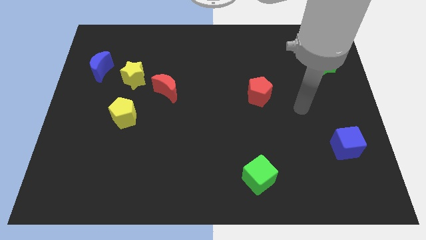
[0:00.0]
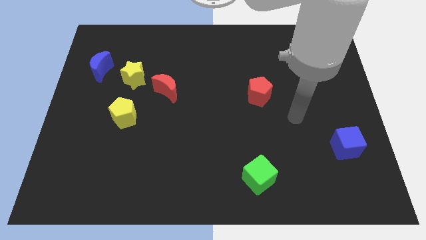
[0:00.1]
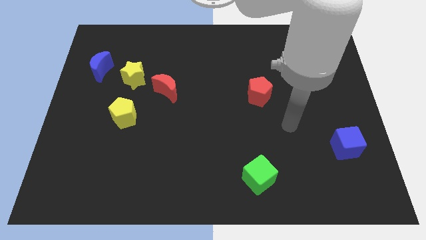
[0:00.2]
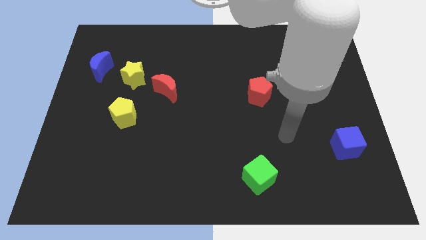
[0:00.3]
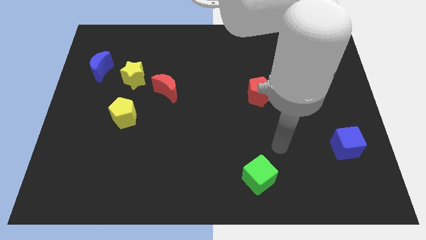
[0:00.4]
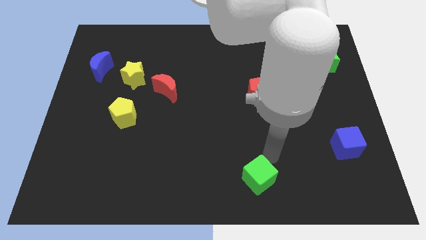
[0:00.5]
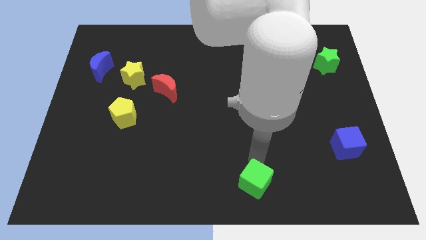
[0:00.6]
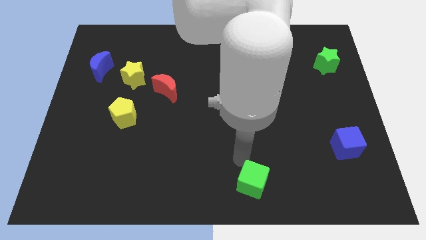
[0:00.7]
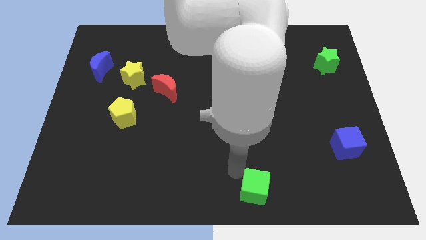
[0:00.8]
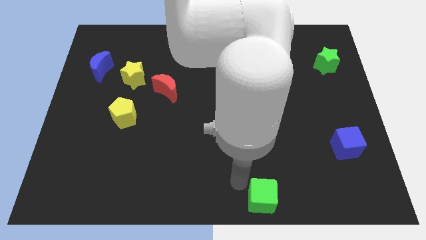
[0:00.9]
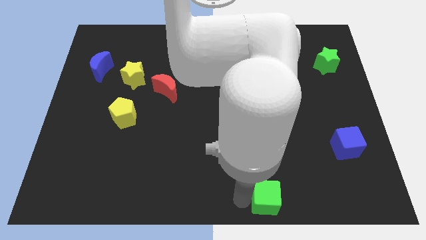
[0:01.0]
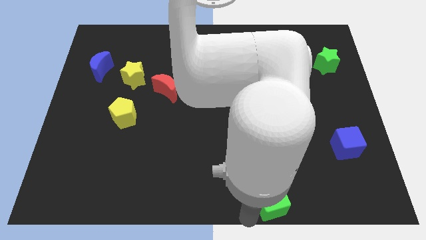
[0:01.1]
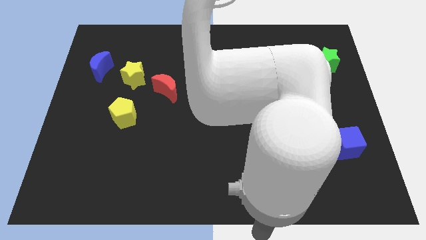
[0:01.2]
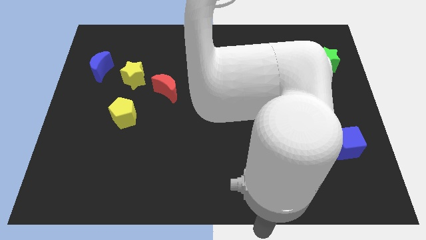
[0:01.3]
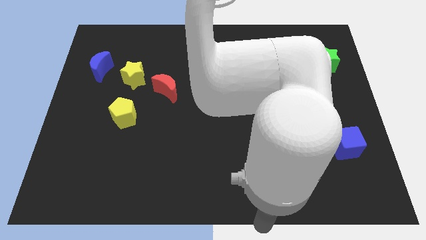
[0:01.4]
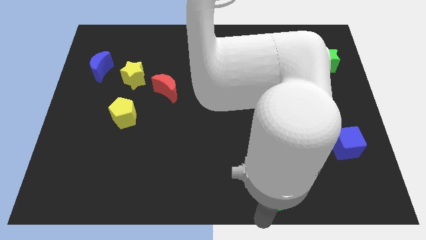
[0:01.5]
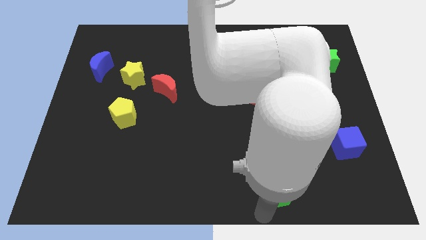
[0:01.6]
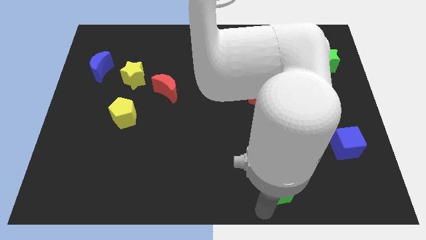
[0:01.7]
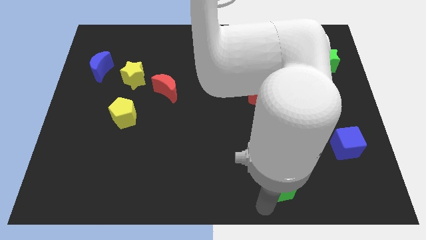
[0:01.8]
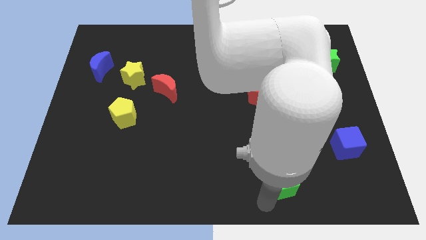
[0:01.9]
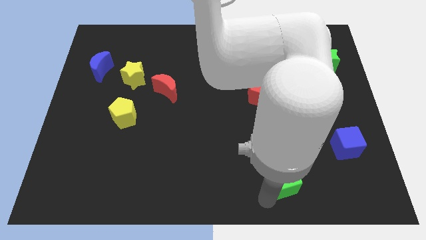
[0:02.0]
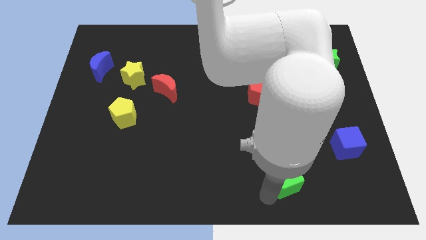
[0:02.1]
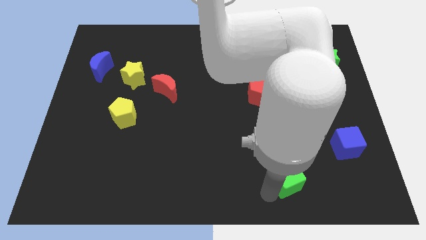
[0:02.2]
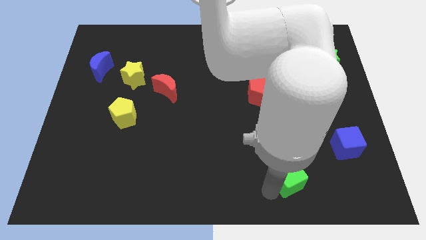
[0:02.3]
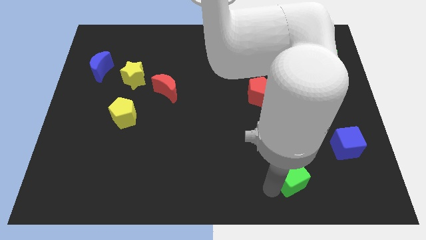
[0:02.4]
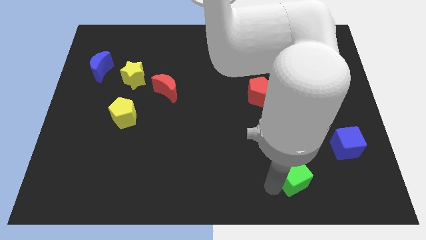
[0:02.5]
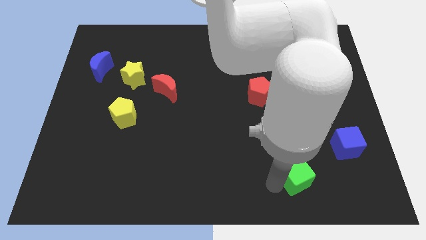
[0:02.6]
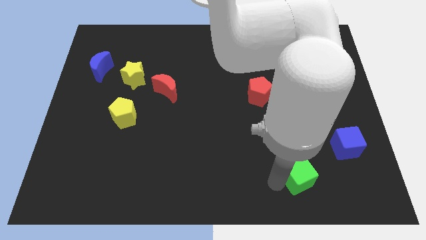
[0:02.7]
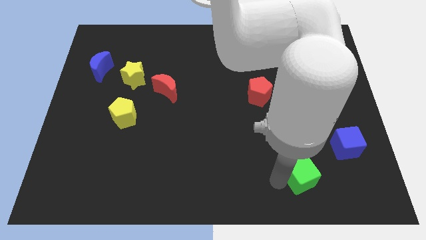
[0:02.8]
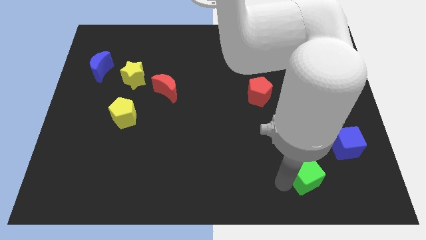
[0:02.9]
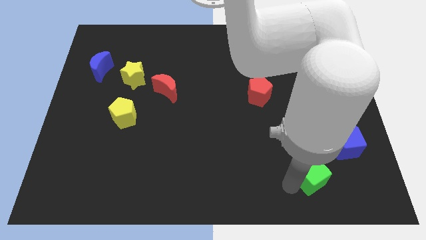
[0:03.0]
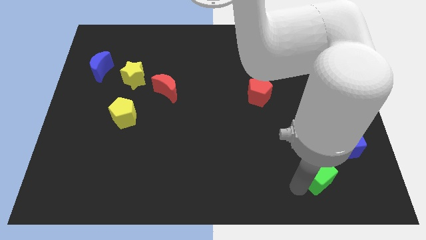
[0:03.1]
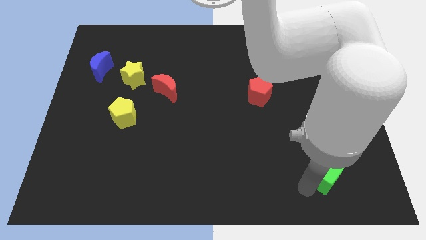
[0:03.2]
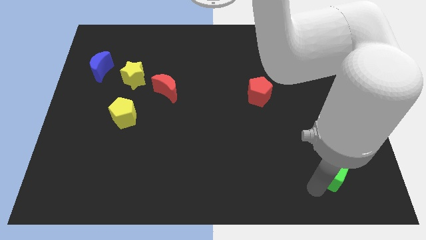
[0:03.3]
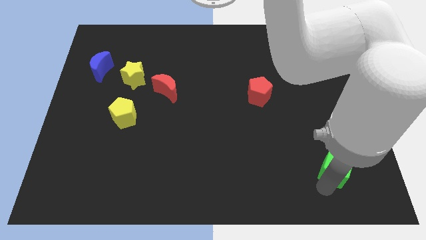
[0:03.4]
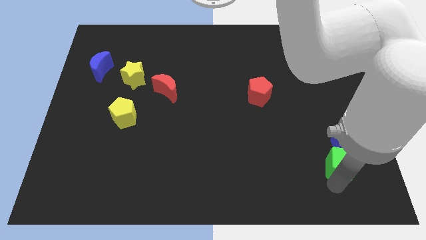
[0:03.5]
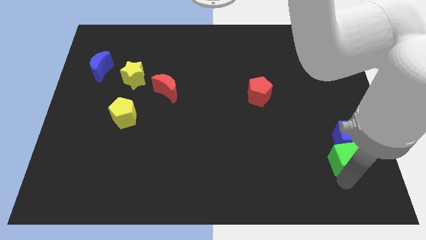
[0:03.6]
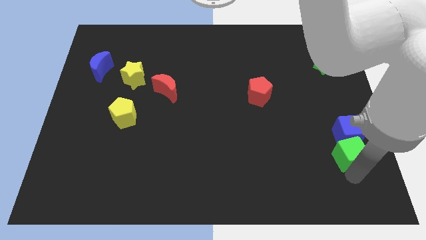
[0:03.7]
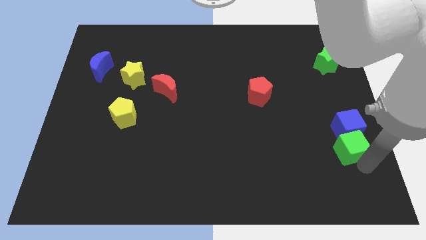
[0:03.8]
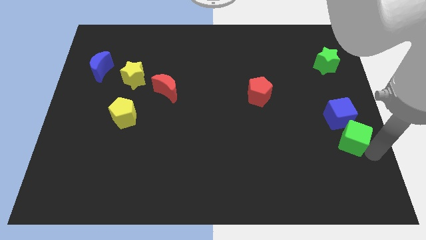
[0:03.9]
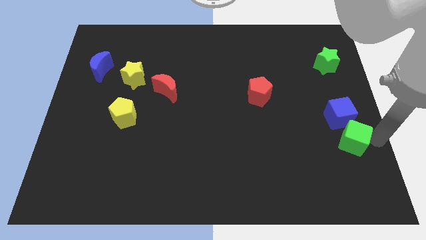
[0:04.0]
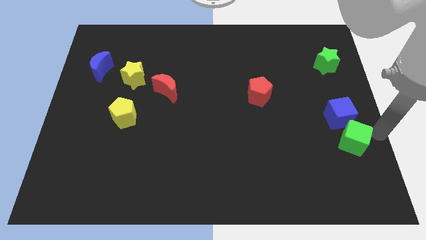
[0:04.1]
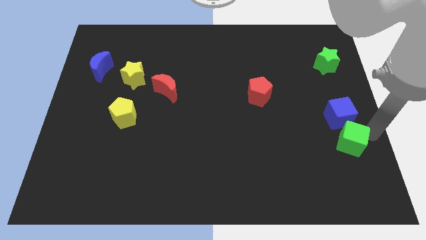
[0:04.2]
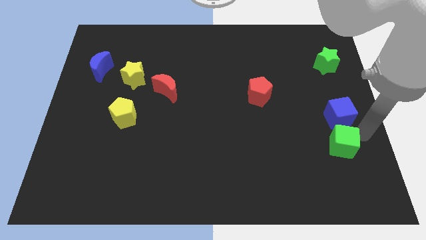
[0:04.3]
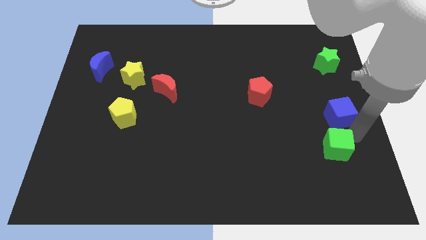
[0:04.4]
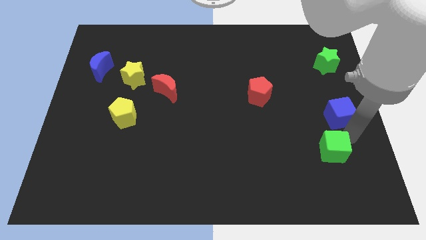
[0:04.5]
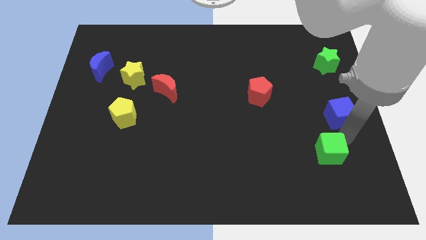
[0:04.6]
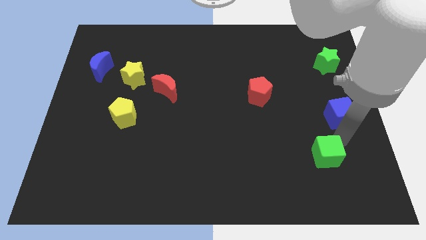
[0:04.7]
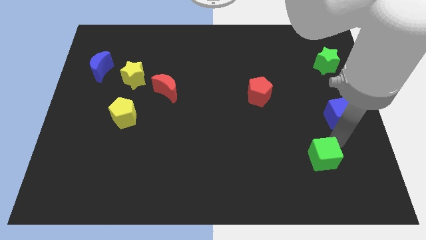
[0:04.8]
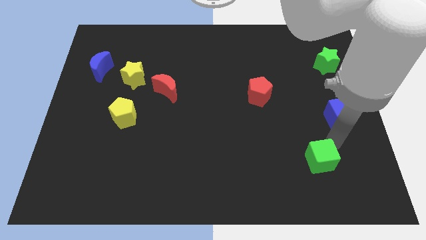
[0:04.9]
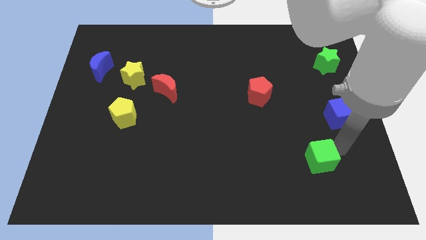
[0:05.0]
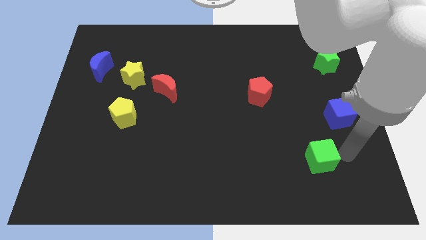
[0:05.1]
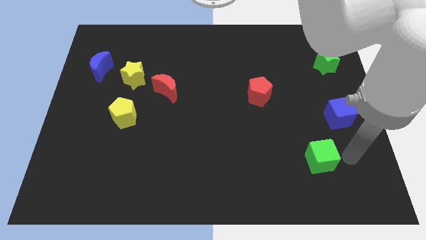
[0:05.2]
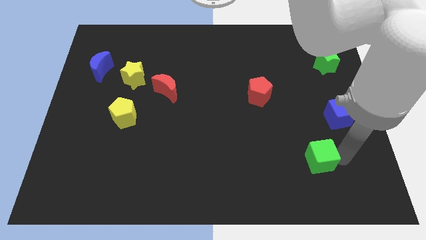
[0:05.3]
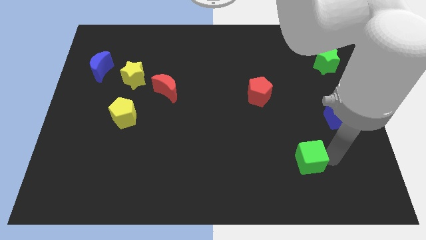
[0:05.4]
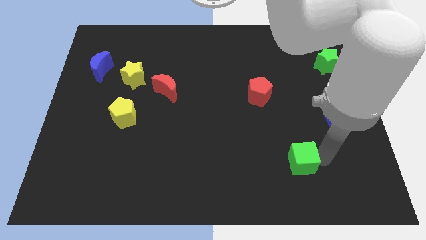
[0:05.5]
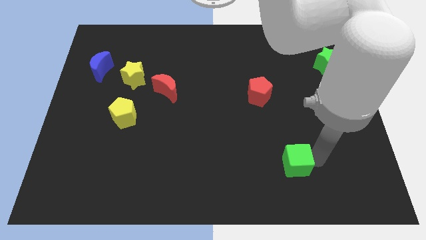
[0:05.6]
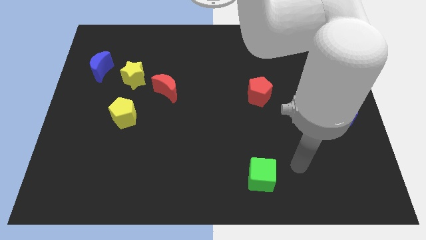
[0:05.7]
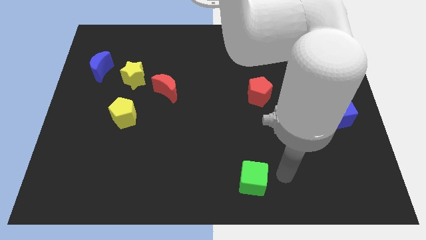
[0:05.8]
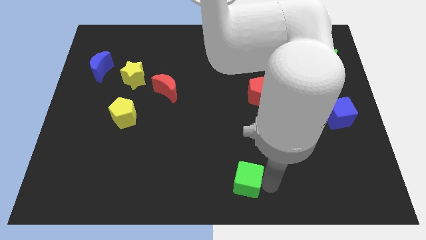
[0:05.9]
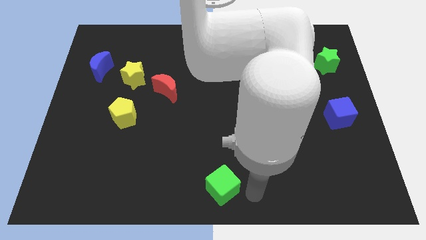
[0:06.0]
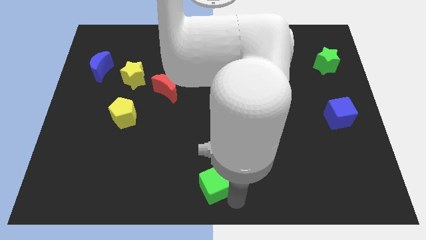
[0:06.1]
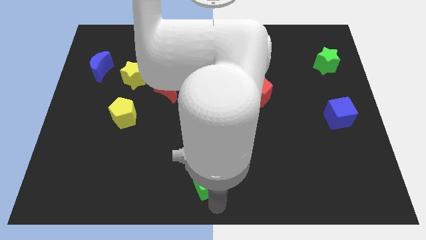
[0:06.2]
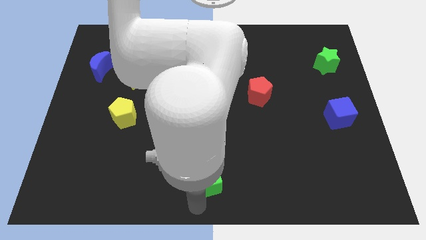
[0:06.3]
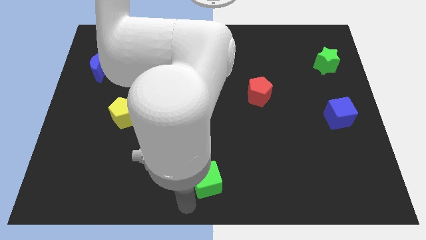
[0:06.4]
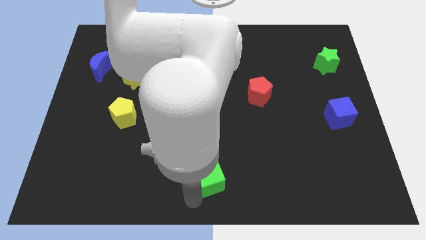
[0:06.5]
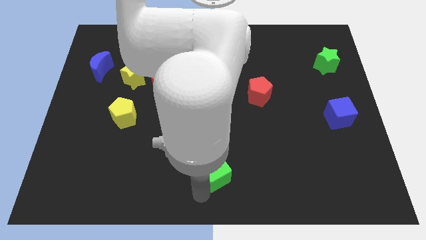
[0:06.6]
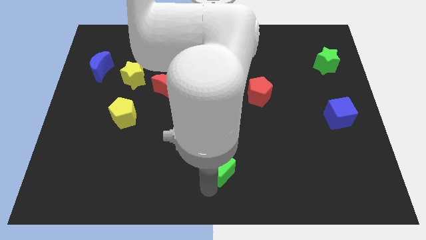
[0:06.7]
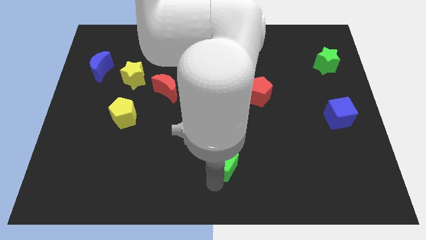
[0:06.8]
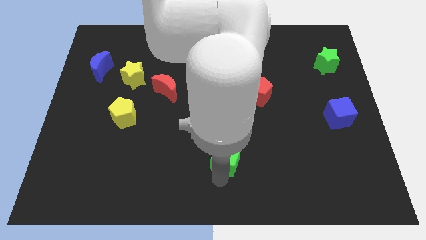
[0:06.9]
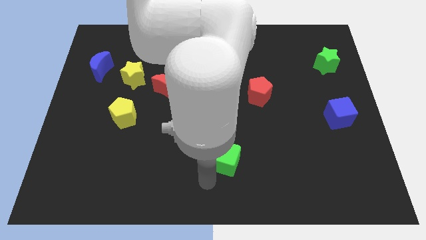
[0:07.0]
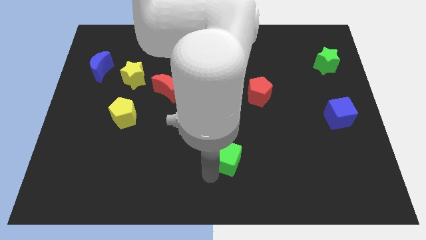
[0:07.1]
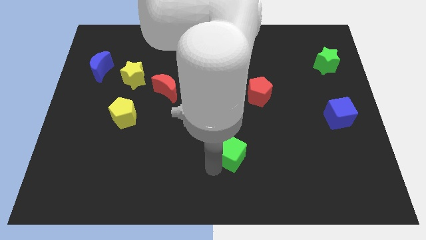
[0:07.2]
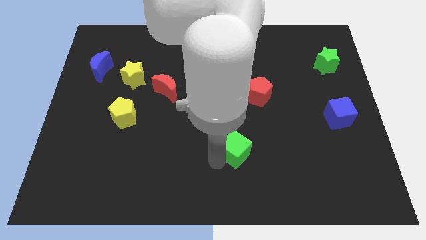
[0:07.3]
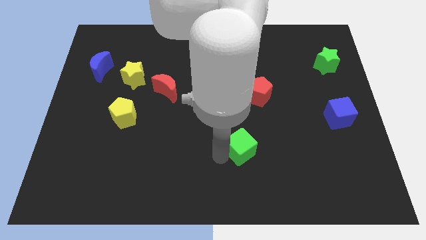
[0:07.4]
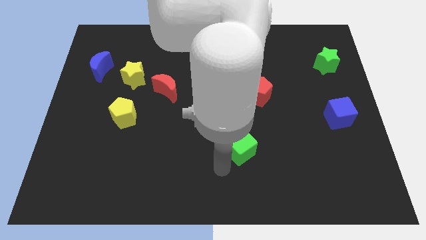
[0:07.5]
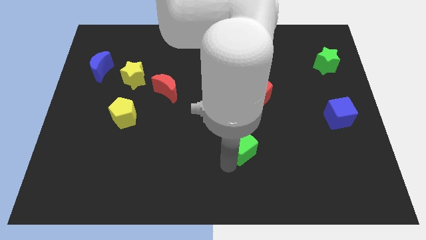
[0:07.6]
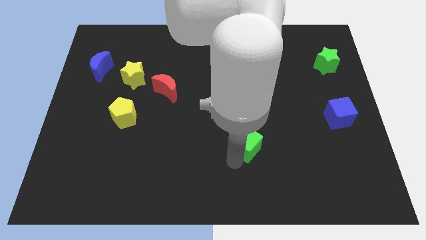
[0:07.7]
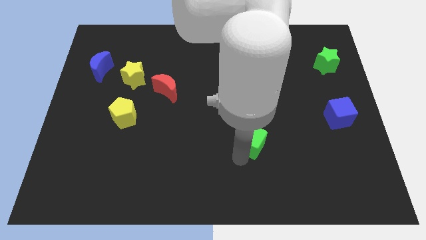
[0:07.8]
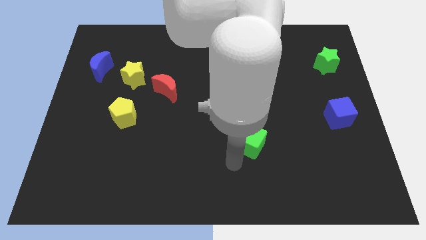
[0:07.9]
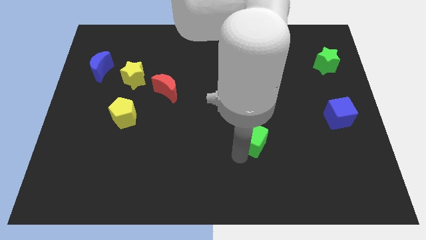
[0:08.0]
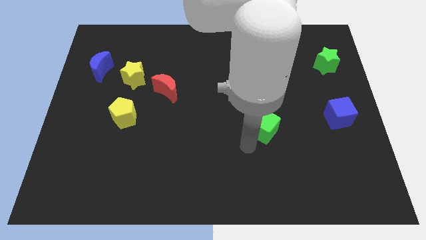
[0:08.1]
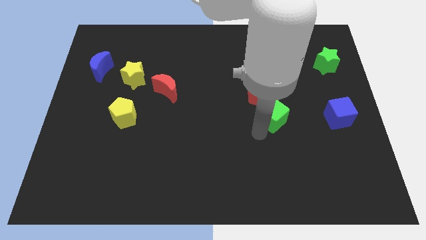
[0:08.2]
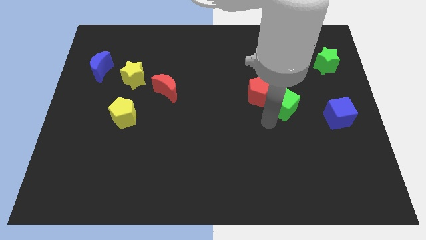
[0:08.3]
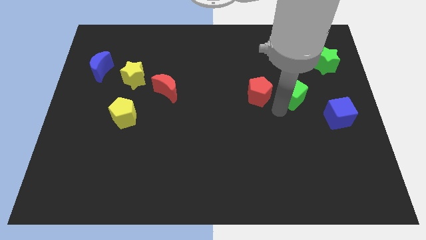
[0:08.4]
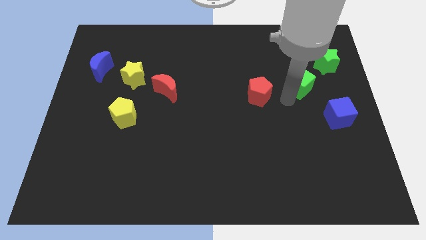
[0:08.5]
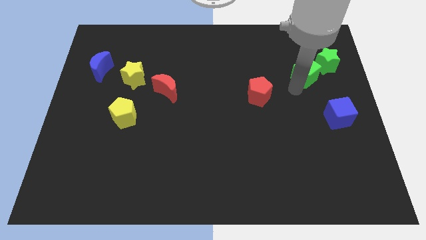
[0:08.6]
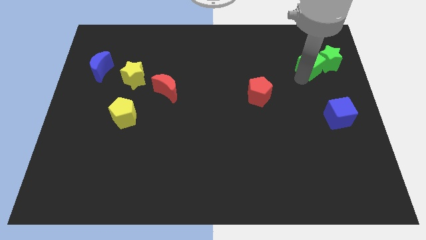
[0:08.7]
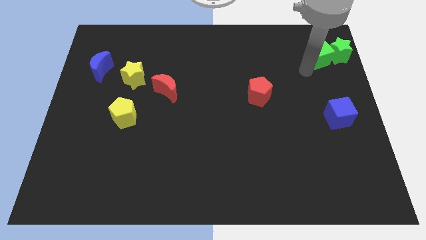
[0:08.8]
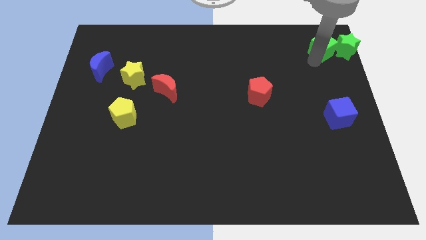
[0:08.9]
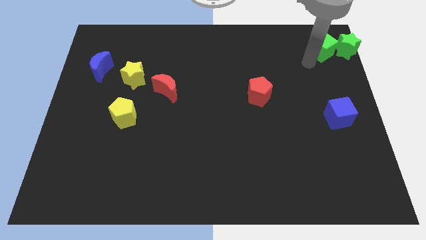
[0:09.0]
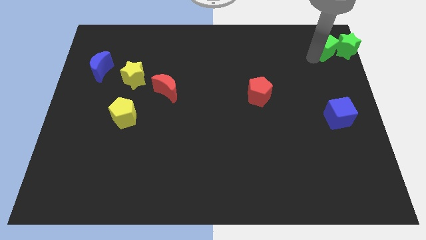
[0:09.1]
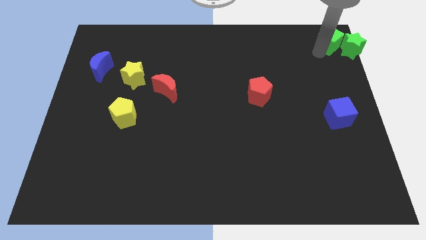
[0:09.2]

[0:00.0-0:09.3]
move the green cube to the upper right corner
